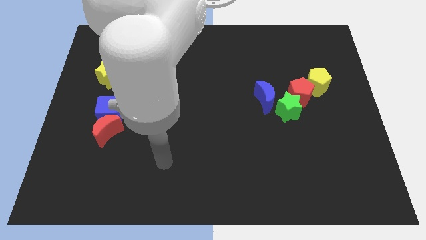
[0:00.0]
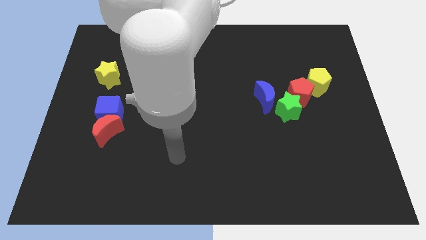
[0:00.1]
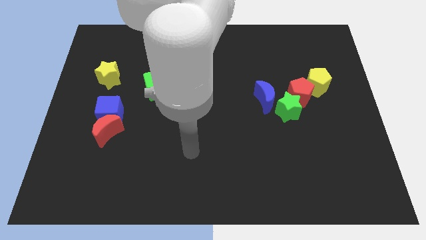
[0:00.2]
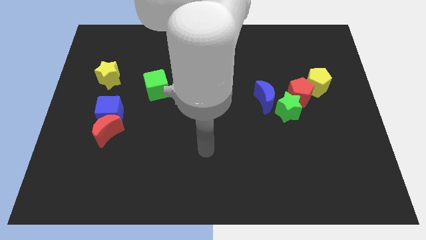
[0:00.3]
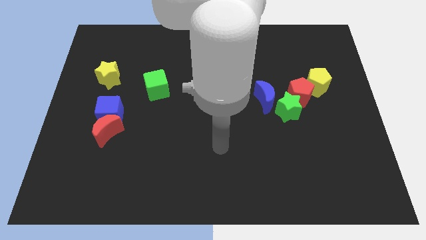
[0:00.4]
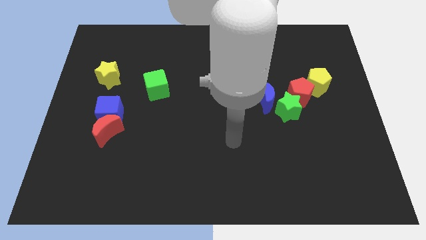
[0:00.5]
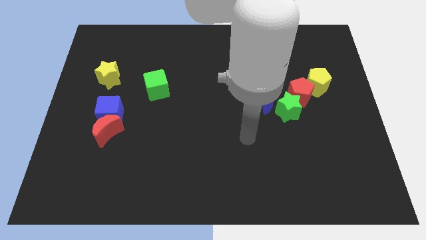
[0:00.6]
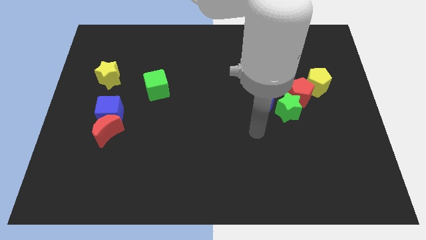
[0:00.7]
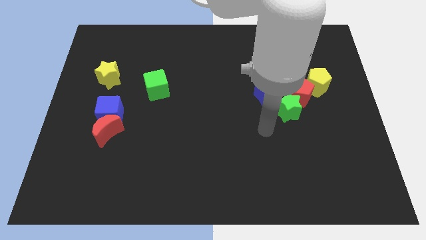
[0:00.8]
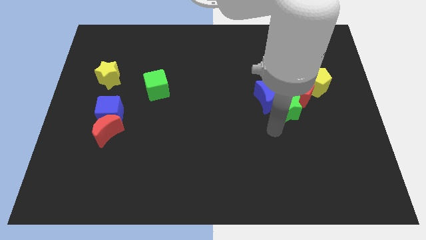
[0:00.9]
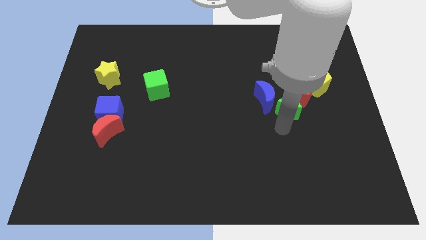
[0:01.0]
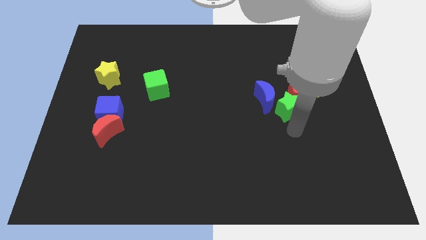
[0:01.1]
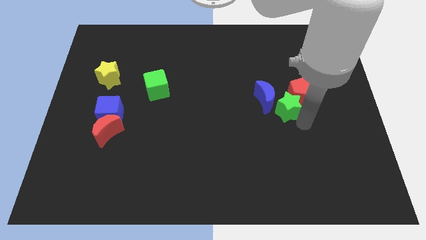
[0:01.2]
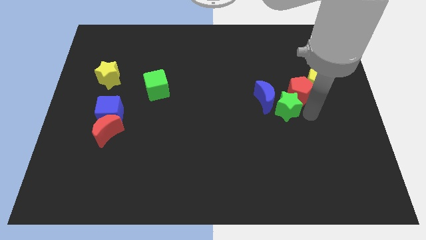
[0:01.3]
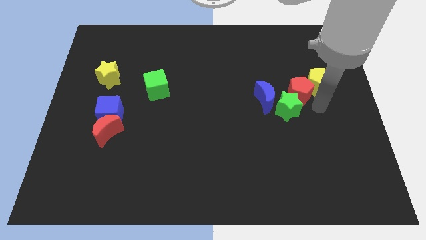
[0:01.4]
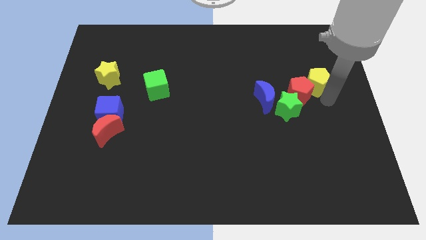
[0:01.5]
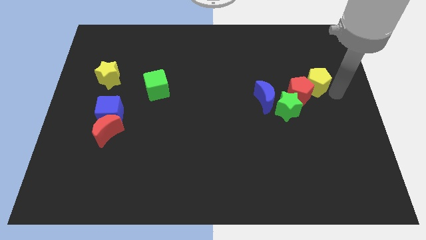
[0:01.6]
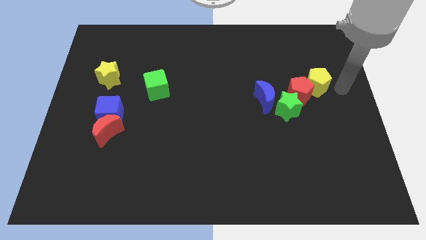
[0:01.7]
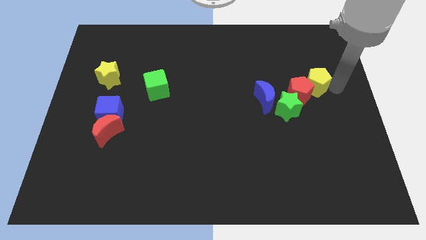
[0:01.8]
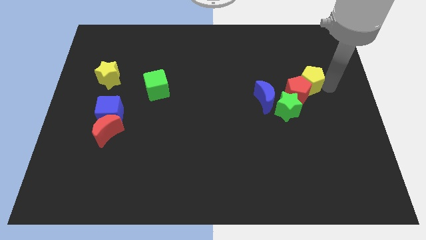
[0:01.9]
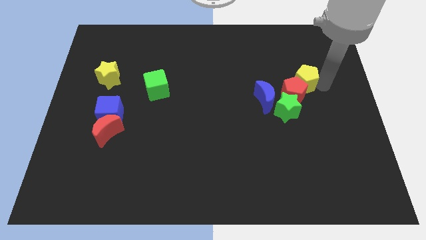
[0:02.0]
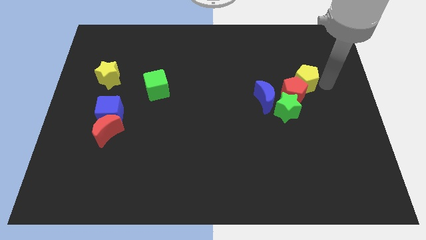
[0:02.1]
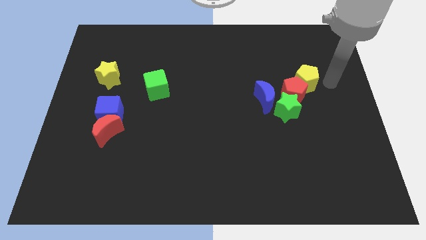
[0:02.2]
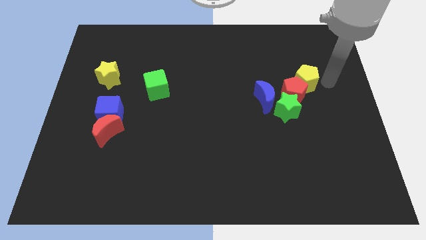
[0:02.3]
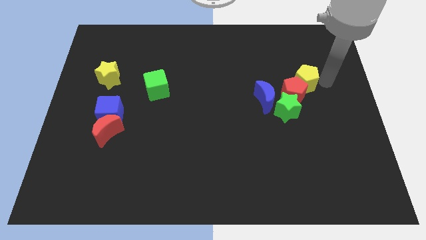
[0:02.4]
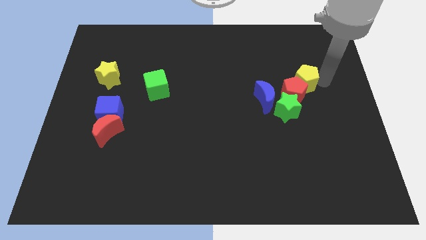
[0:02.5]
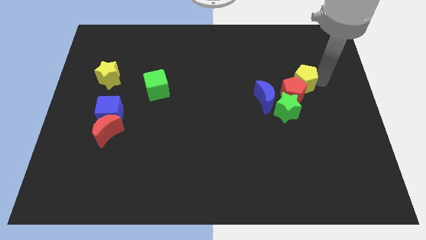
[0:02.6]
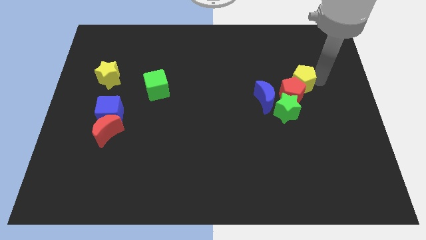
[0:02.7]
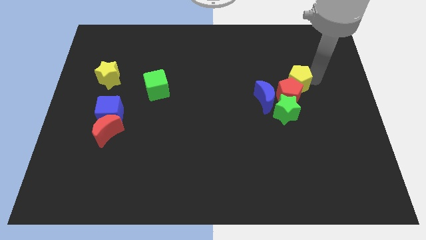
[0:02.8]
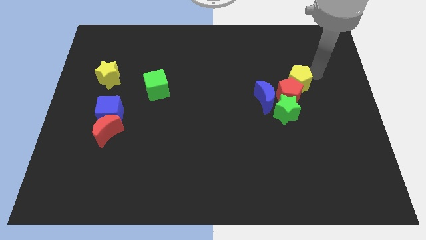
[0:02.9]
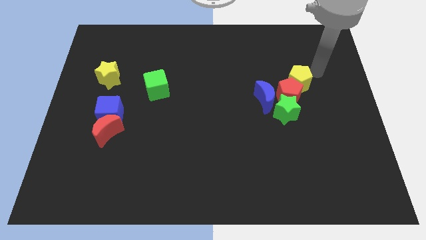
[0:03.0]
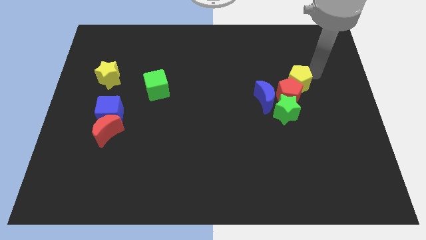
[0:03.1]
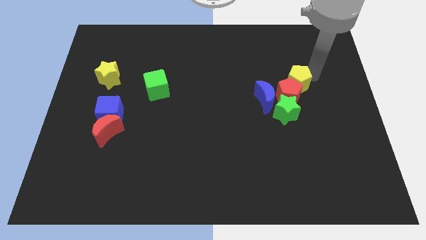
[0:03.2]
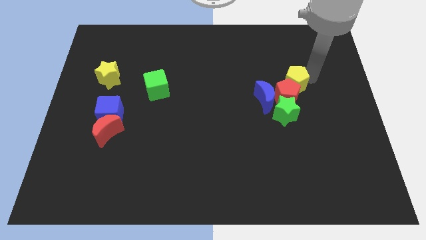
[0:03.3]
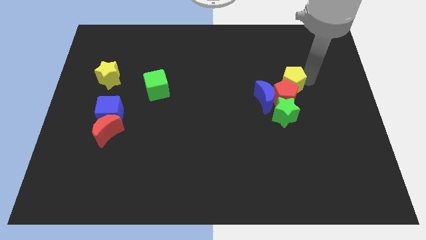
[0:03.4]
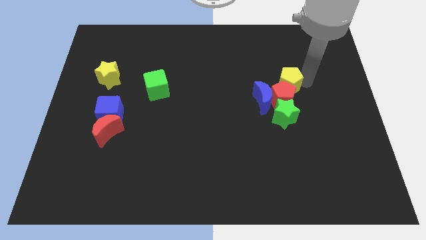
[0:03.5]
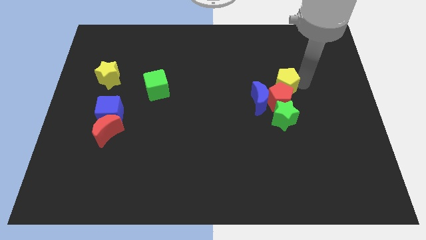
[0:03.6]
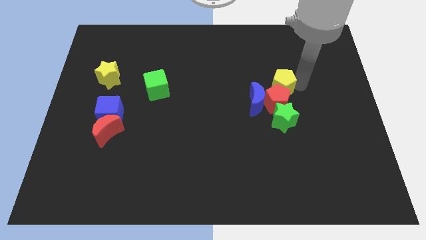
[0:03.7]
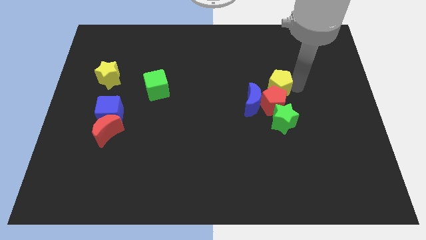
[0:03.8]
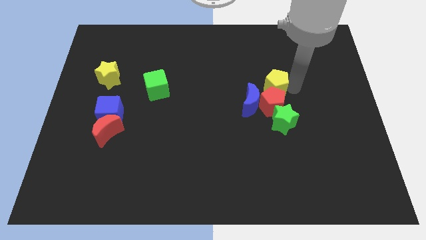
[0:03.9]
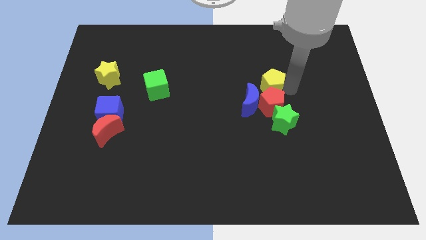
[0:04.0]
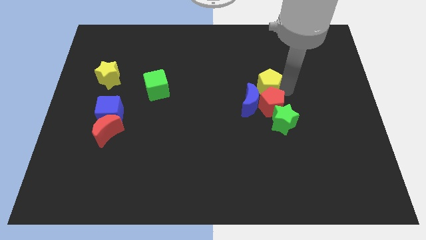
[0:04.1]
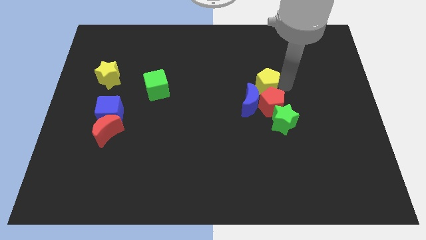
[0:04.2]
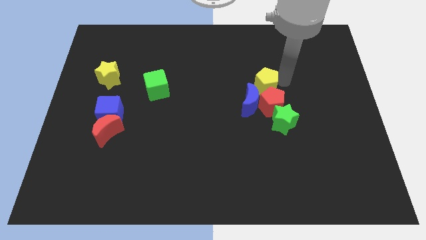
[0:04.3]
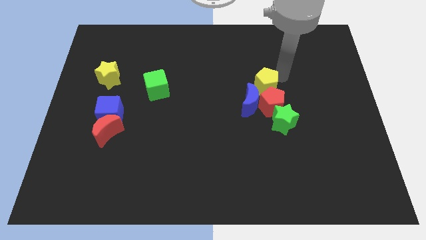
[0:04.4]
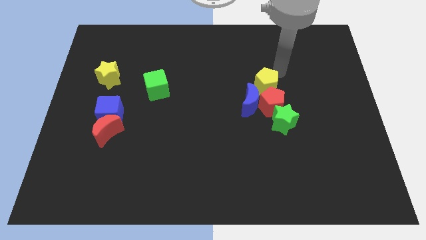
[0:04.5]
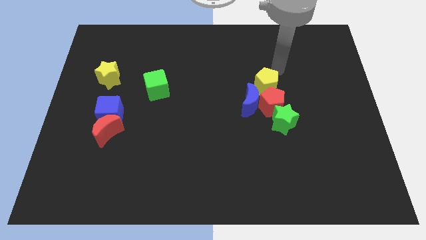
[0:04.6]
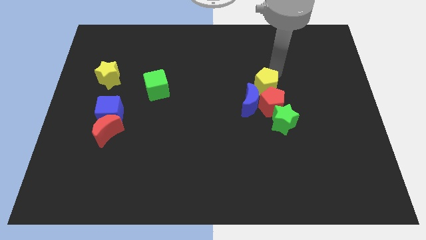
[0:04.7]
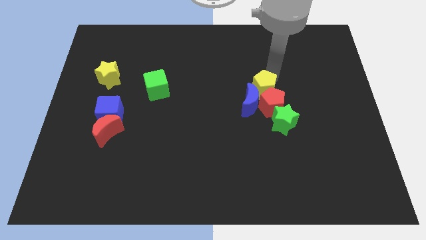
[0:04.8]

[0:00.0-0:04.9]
put the yellow pentagon close to the blue moon

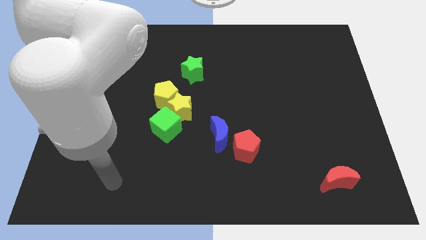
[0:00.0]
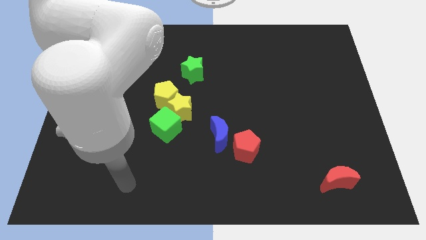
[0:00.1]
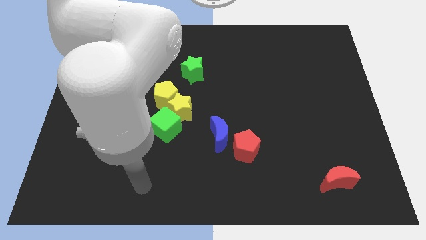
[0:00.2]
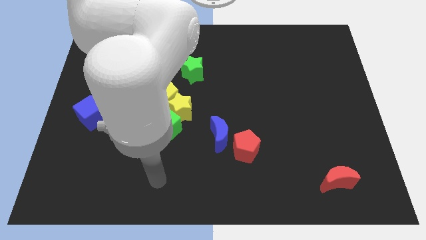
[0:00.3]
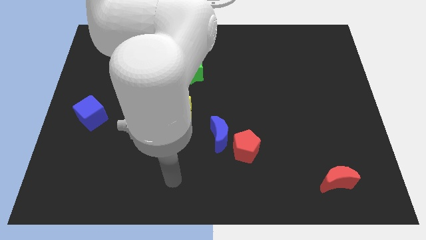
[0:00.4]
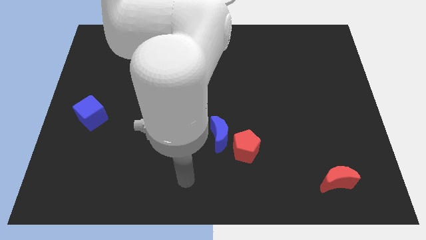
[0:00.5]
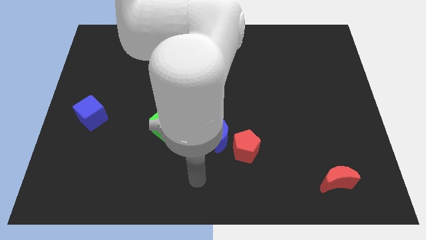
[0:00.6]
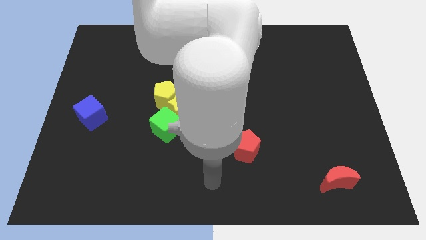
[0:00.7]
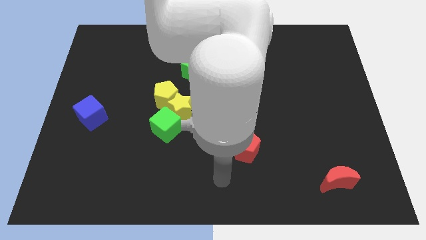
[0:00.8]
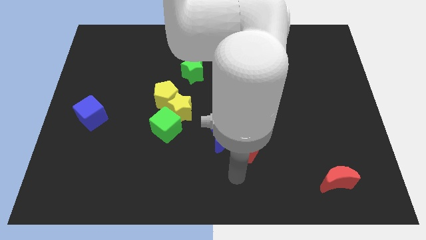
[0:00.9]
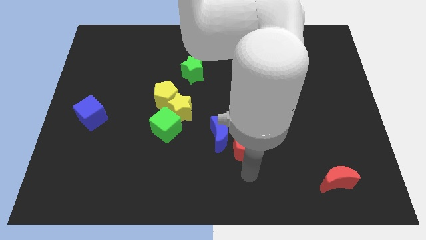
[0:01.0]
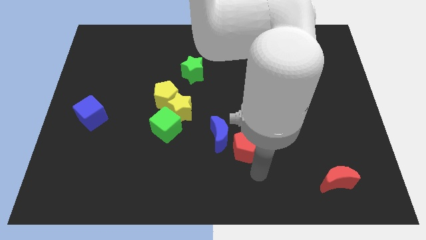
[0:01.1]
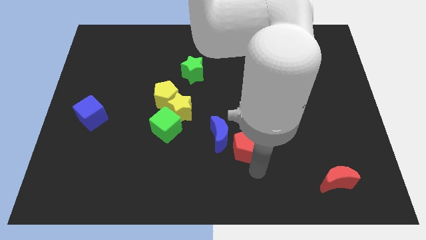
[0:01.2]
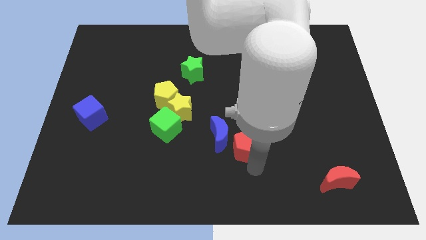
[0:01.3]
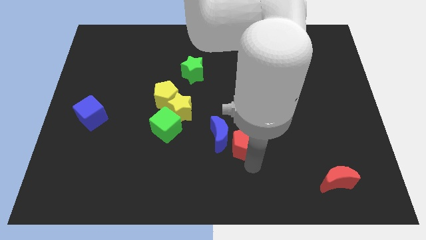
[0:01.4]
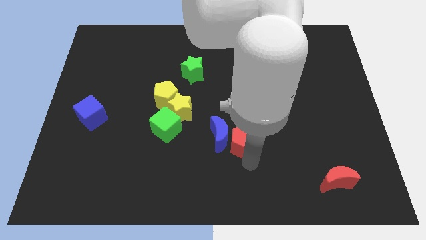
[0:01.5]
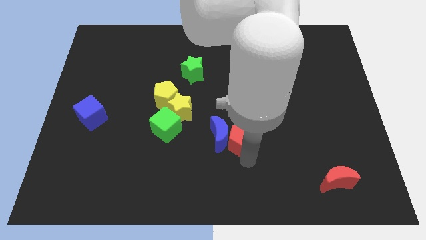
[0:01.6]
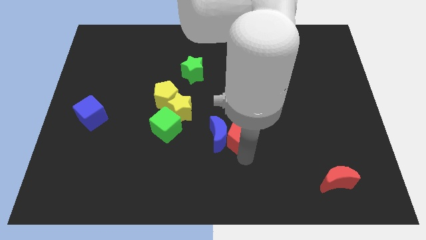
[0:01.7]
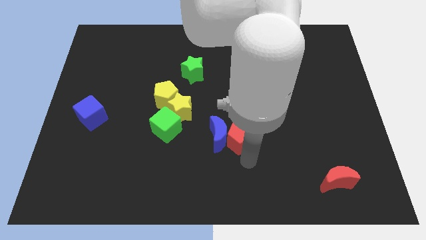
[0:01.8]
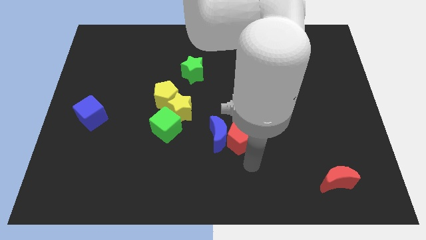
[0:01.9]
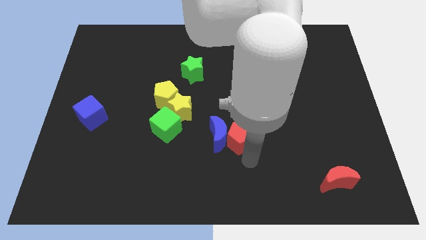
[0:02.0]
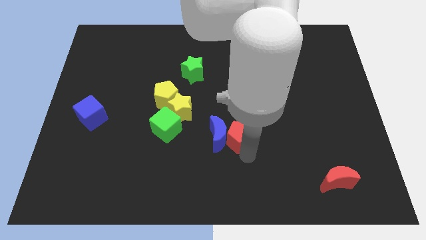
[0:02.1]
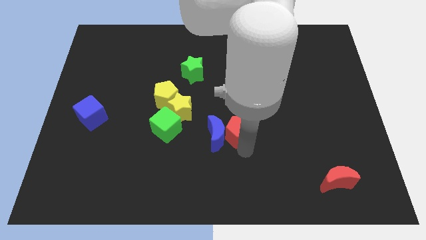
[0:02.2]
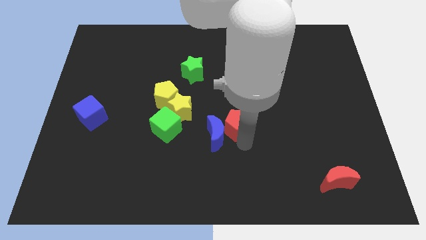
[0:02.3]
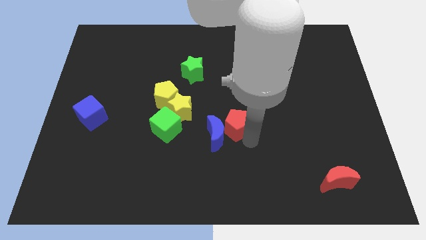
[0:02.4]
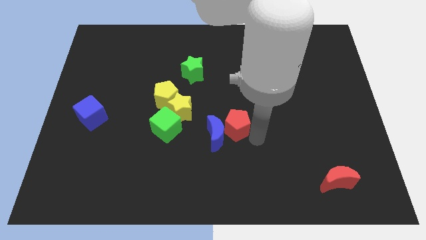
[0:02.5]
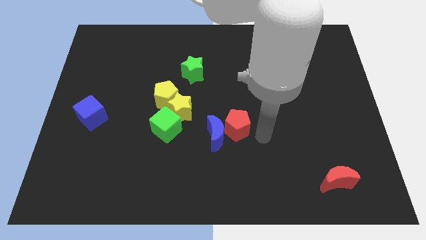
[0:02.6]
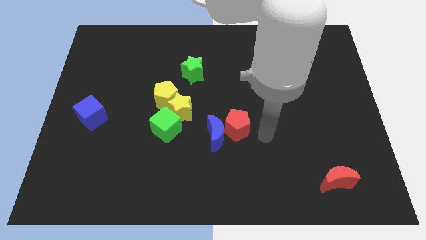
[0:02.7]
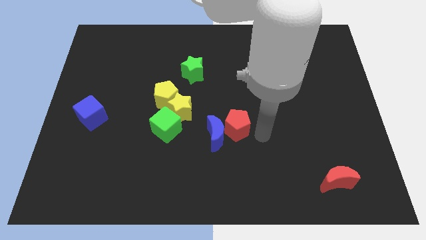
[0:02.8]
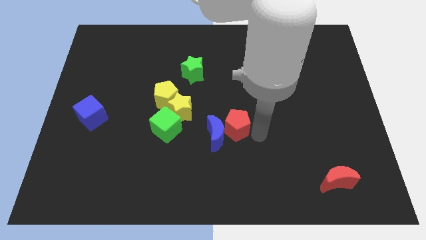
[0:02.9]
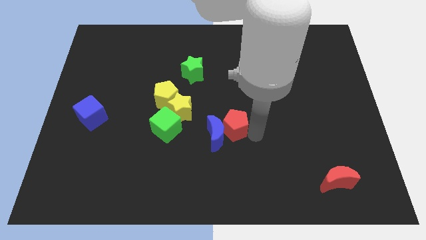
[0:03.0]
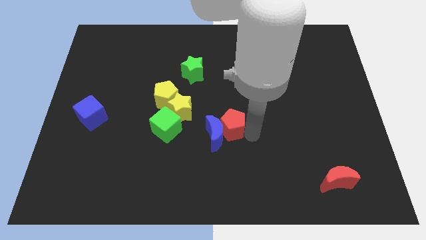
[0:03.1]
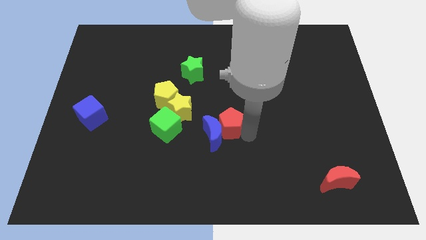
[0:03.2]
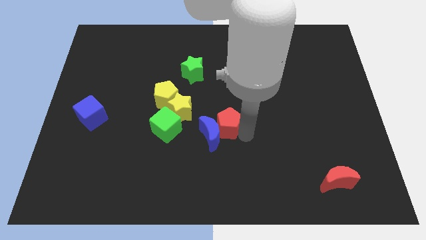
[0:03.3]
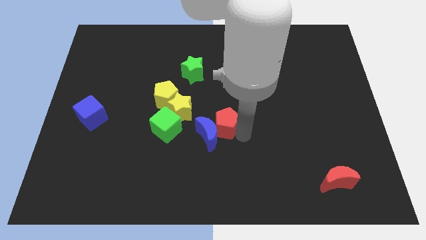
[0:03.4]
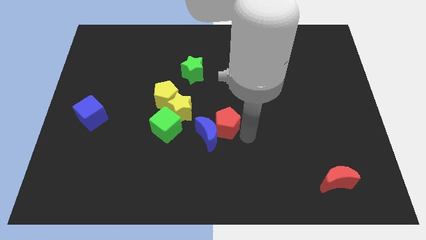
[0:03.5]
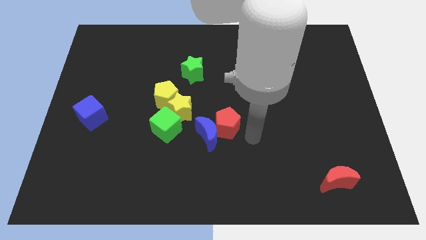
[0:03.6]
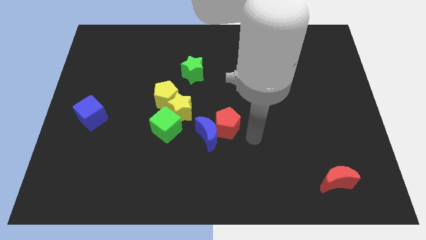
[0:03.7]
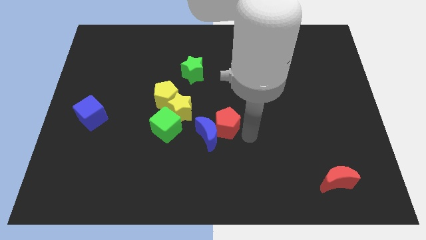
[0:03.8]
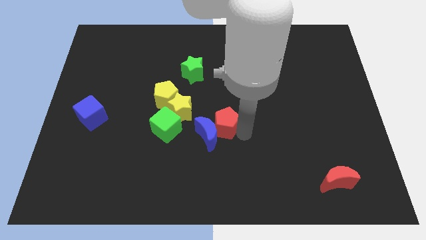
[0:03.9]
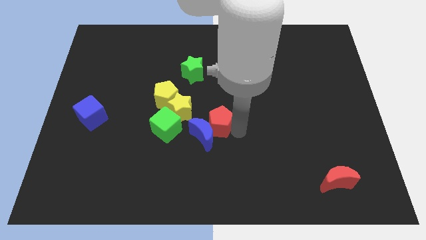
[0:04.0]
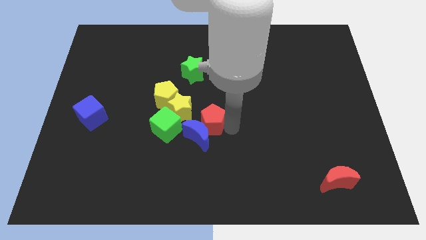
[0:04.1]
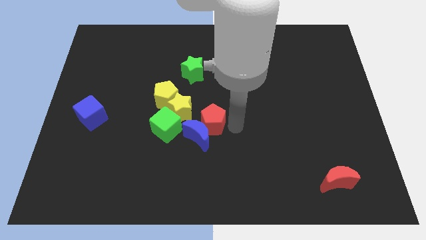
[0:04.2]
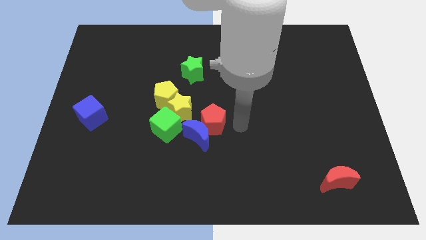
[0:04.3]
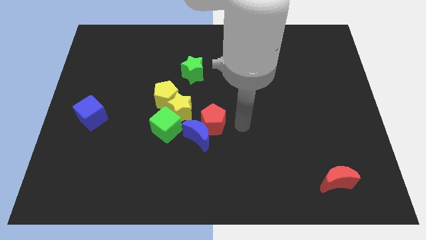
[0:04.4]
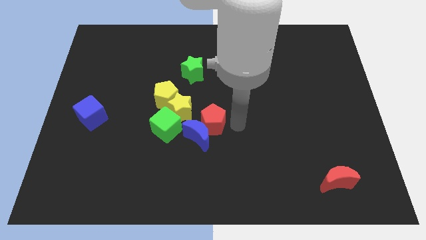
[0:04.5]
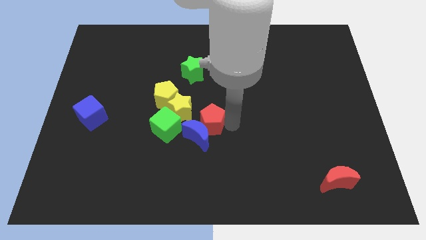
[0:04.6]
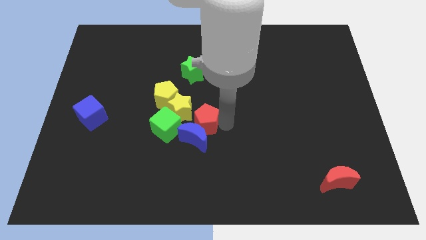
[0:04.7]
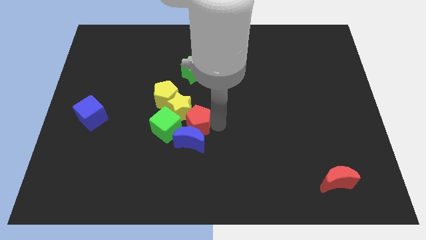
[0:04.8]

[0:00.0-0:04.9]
move the red pentagon to the yellow star
